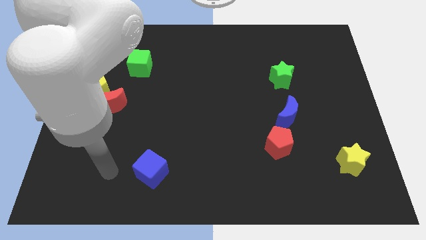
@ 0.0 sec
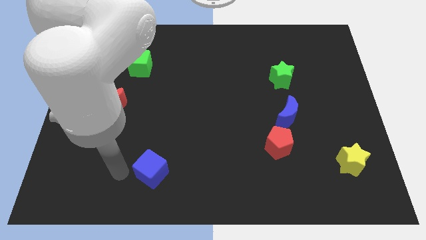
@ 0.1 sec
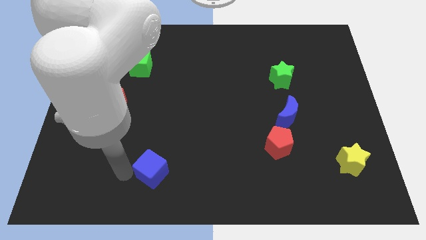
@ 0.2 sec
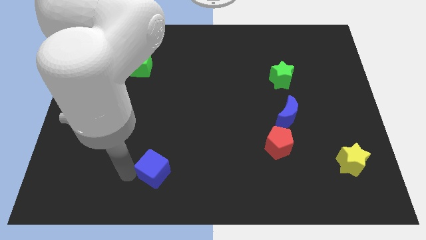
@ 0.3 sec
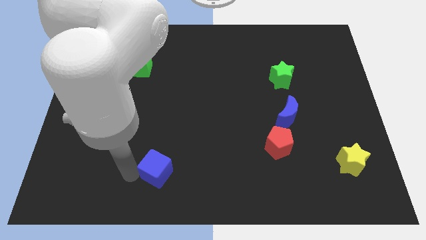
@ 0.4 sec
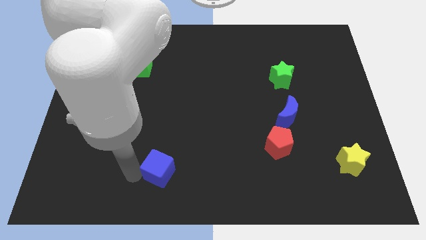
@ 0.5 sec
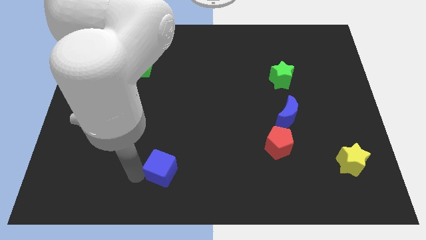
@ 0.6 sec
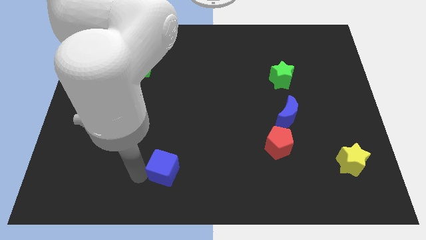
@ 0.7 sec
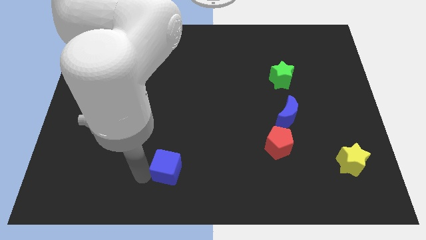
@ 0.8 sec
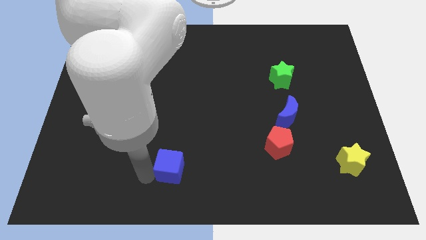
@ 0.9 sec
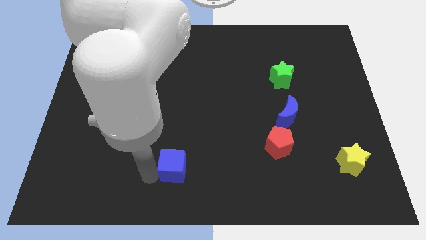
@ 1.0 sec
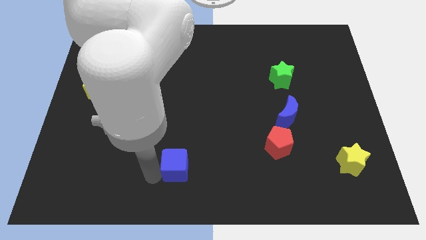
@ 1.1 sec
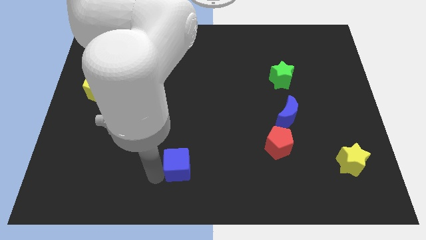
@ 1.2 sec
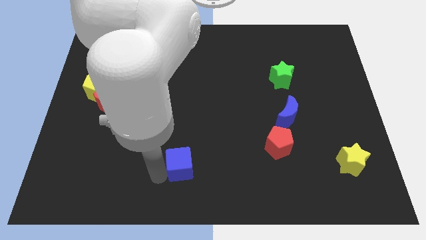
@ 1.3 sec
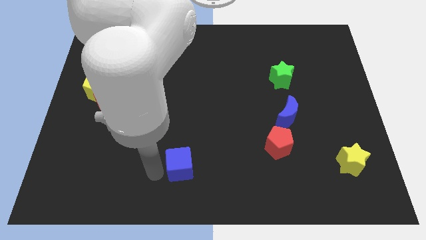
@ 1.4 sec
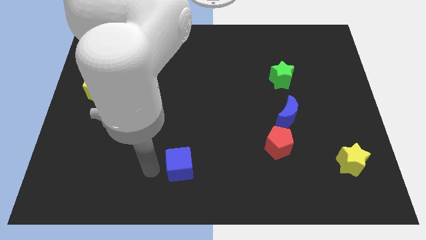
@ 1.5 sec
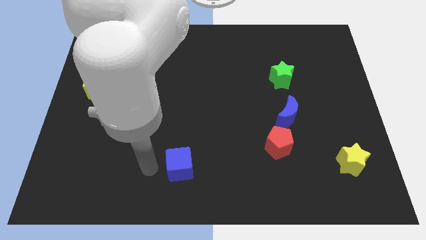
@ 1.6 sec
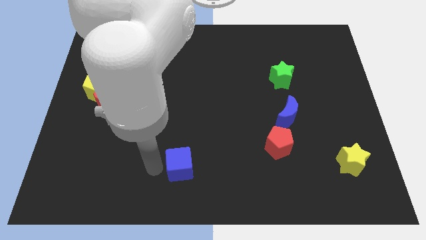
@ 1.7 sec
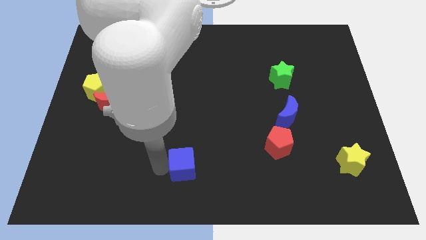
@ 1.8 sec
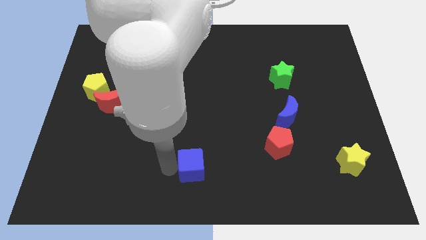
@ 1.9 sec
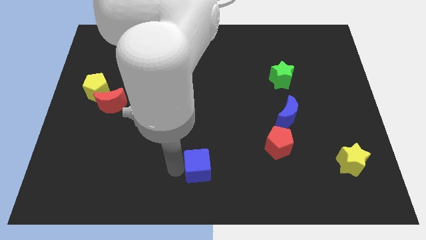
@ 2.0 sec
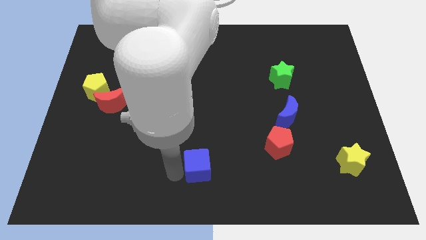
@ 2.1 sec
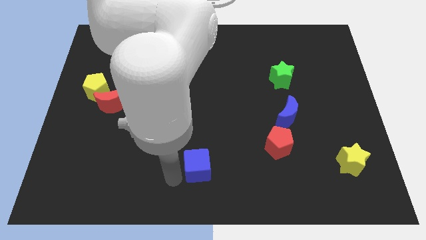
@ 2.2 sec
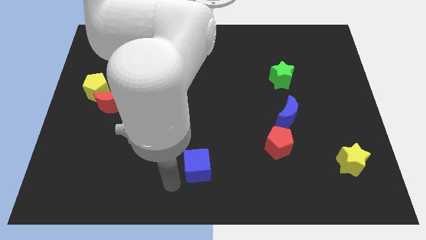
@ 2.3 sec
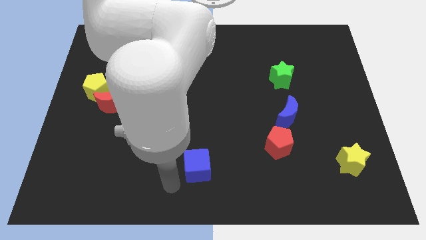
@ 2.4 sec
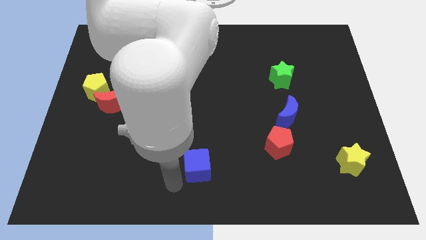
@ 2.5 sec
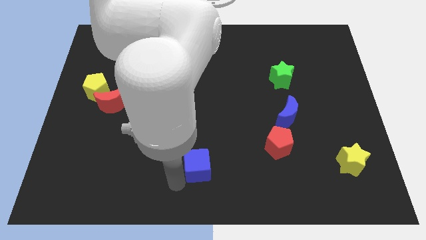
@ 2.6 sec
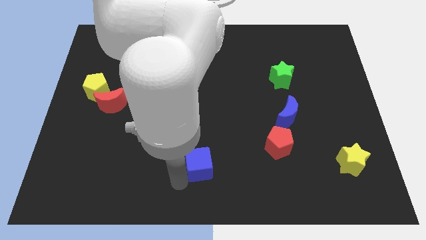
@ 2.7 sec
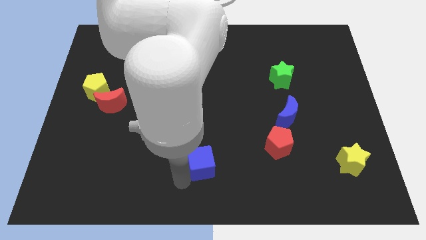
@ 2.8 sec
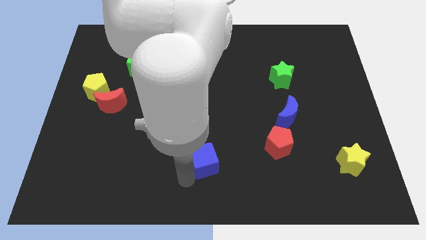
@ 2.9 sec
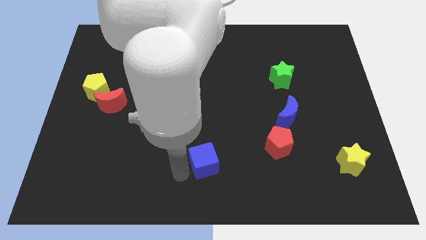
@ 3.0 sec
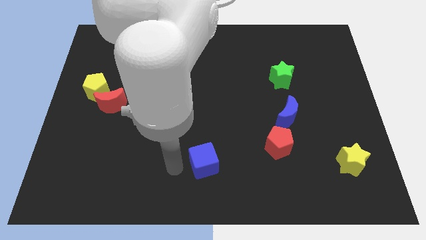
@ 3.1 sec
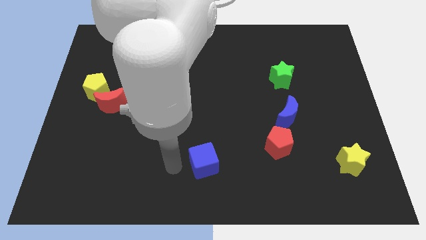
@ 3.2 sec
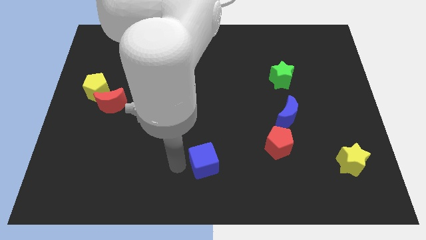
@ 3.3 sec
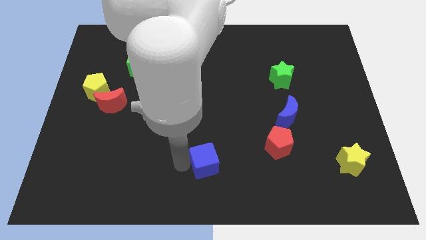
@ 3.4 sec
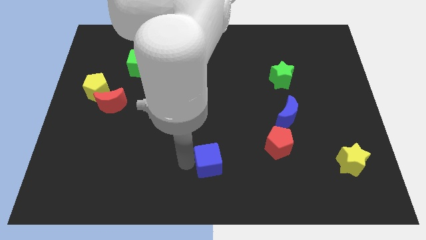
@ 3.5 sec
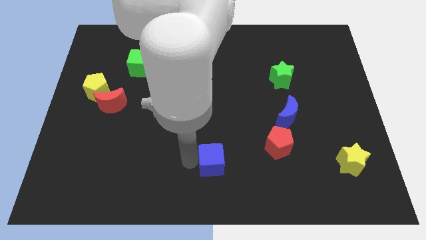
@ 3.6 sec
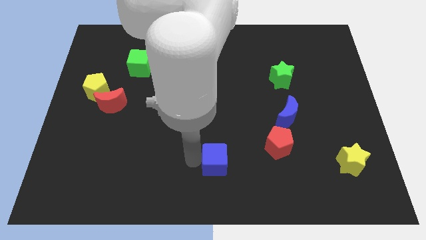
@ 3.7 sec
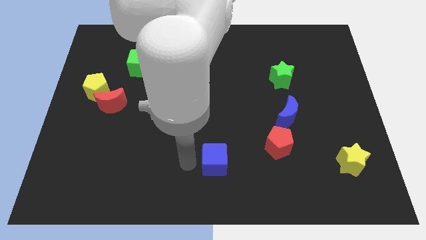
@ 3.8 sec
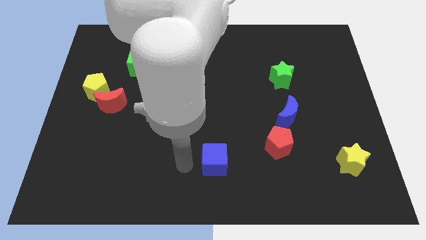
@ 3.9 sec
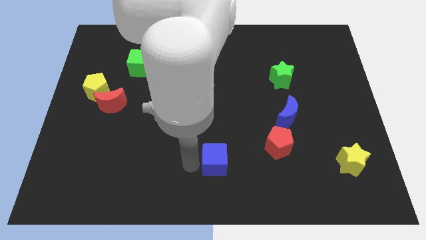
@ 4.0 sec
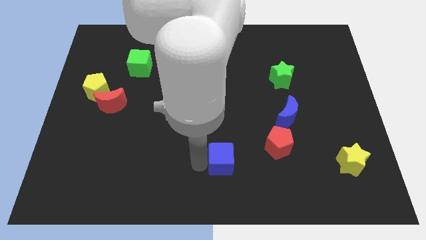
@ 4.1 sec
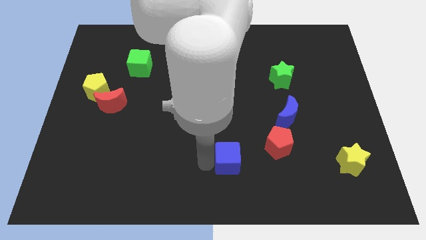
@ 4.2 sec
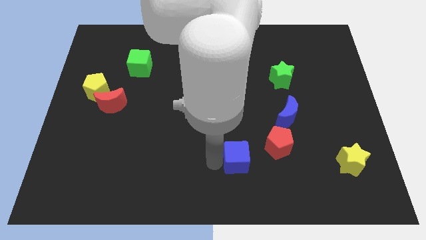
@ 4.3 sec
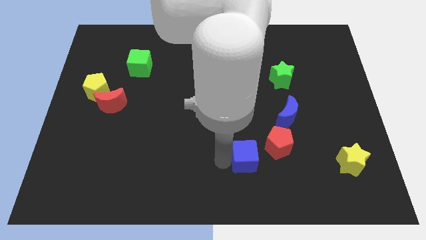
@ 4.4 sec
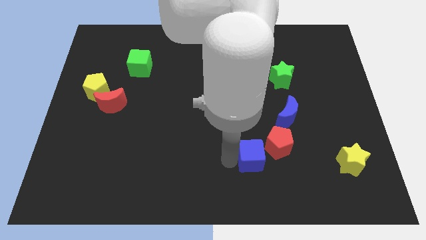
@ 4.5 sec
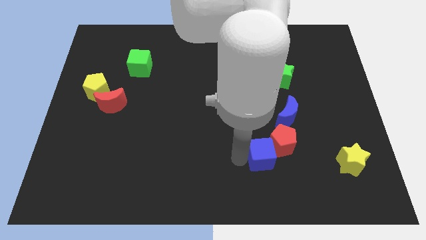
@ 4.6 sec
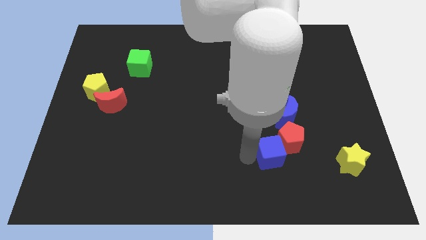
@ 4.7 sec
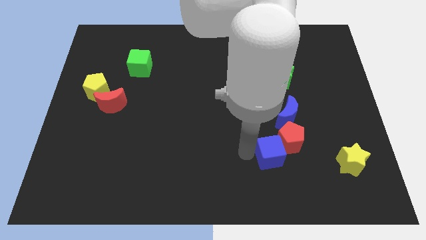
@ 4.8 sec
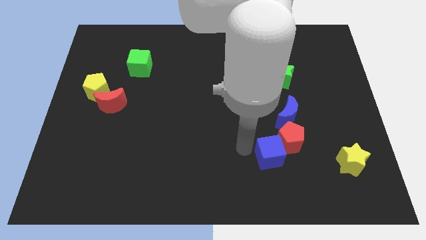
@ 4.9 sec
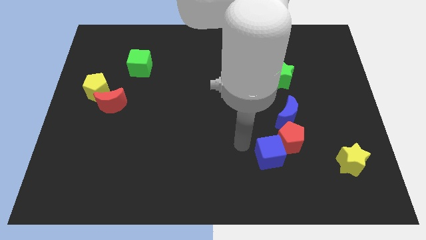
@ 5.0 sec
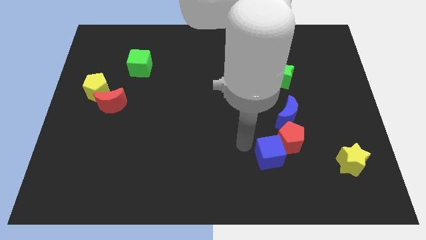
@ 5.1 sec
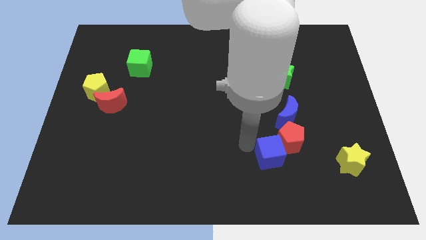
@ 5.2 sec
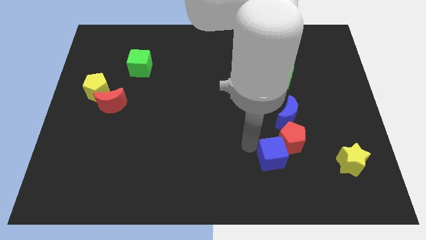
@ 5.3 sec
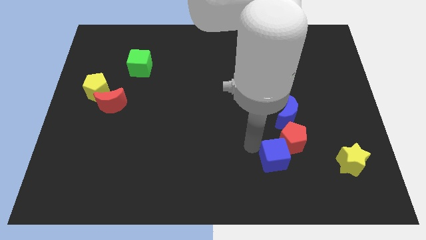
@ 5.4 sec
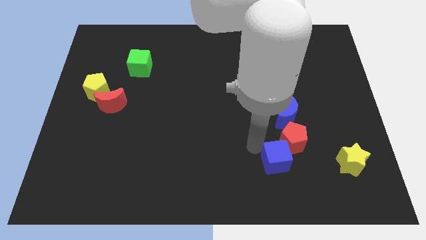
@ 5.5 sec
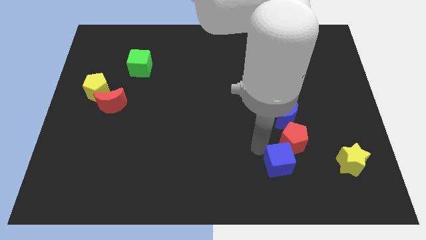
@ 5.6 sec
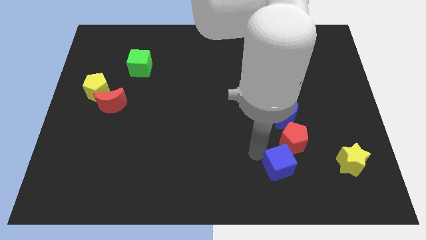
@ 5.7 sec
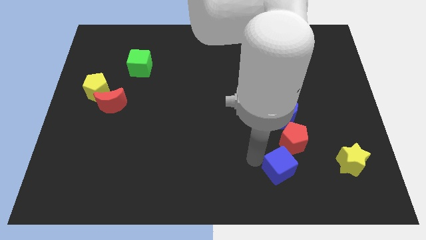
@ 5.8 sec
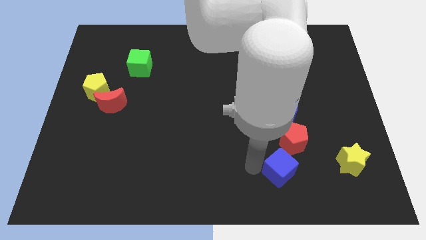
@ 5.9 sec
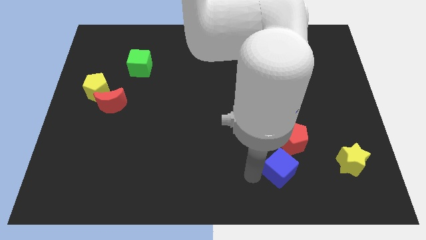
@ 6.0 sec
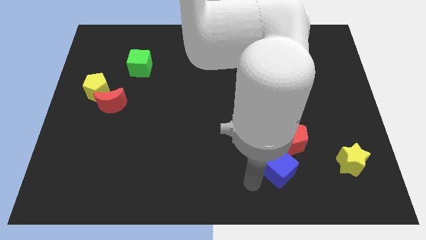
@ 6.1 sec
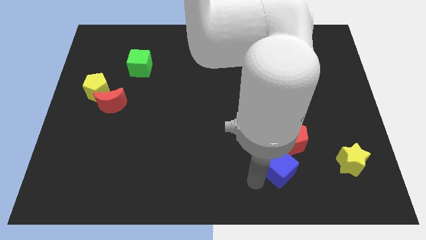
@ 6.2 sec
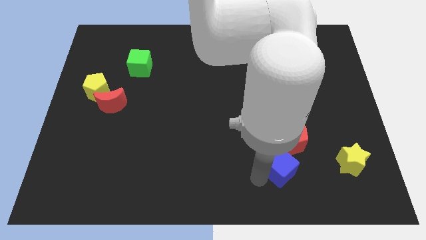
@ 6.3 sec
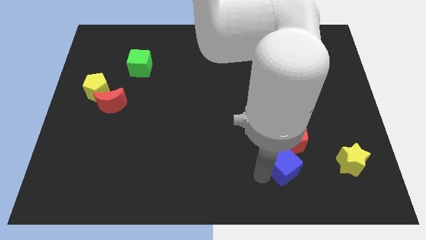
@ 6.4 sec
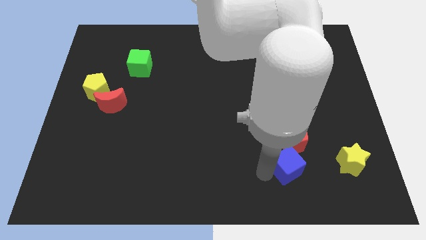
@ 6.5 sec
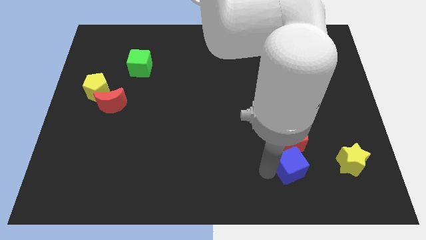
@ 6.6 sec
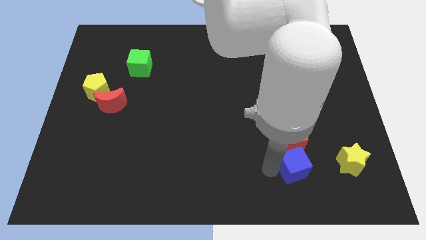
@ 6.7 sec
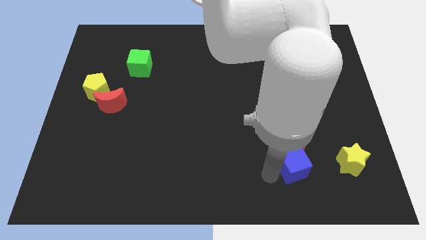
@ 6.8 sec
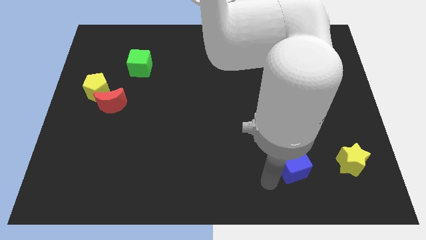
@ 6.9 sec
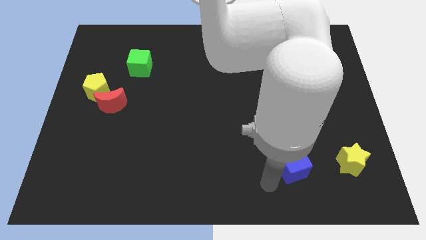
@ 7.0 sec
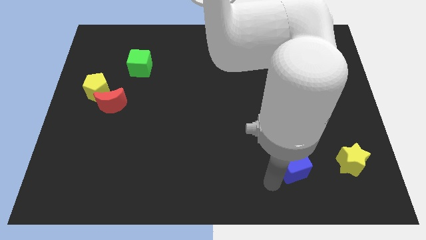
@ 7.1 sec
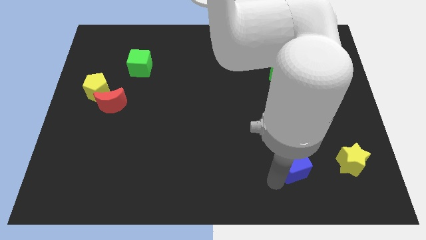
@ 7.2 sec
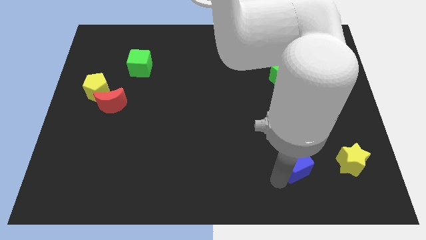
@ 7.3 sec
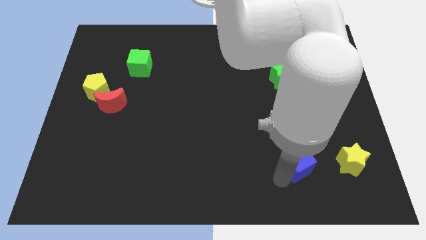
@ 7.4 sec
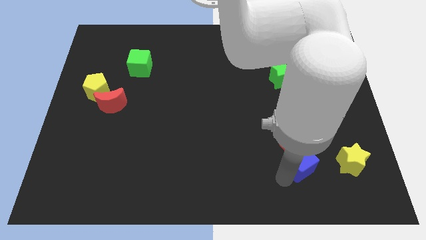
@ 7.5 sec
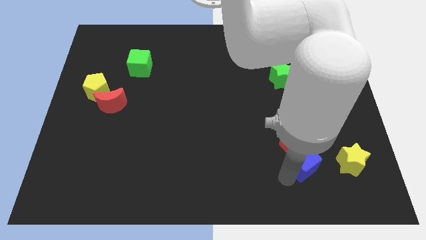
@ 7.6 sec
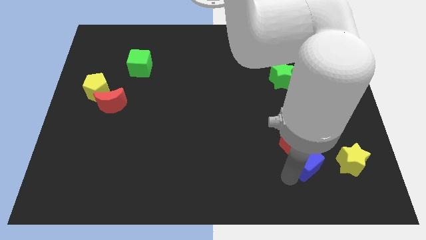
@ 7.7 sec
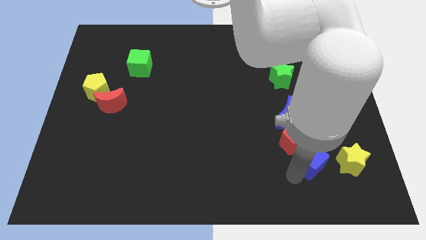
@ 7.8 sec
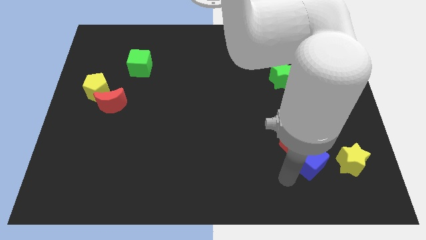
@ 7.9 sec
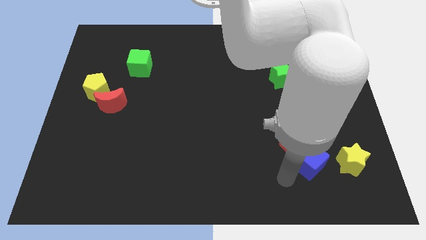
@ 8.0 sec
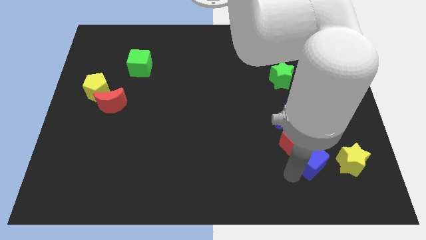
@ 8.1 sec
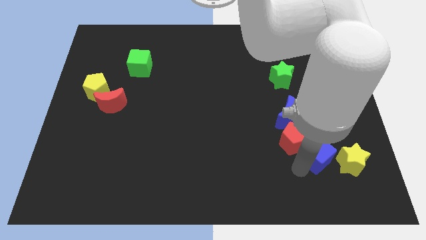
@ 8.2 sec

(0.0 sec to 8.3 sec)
put the blue cube just right of the red pentagon
